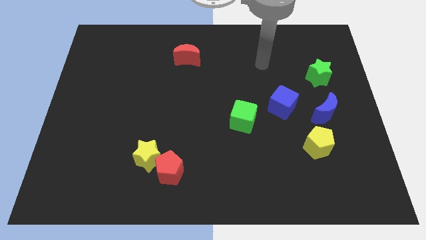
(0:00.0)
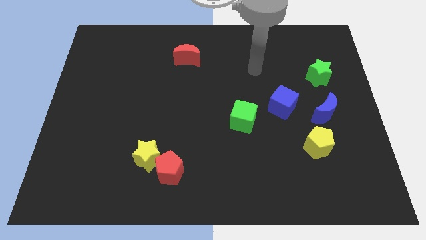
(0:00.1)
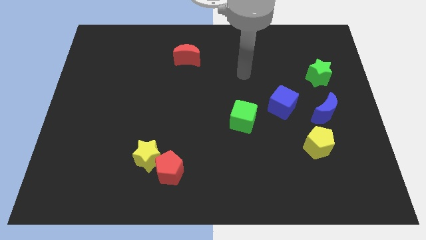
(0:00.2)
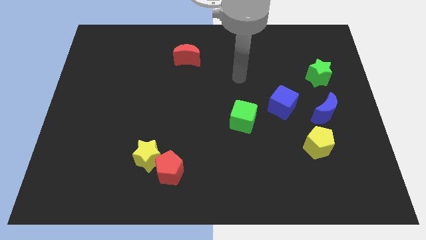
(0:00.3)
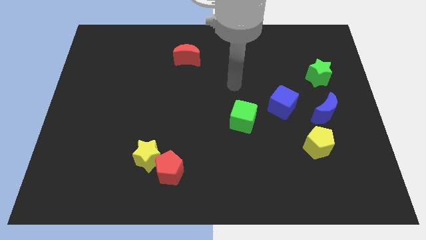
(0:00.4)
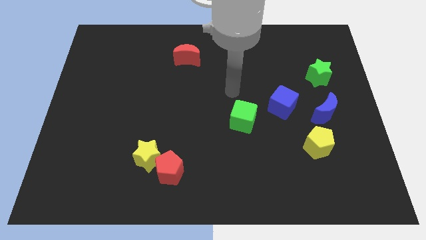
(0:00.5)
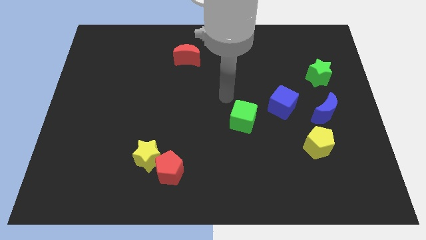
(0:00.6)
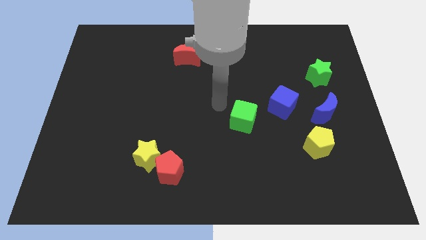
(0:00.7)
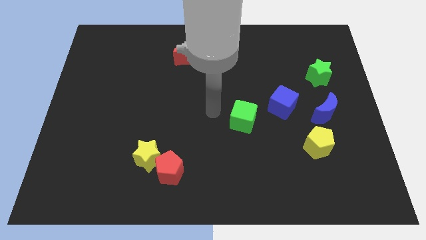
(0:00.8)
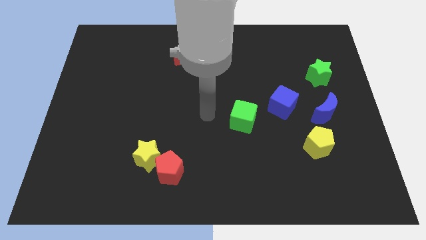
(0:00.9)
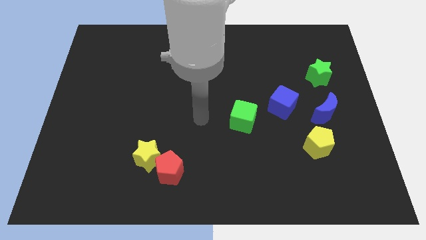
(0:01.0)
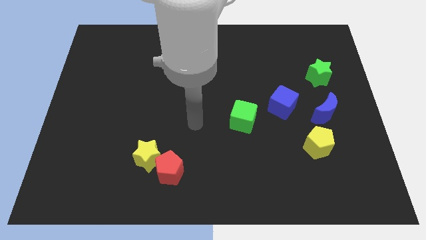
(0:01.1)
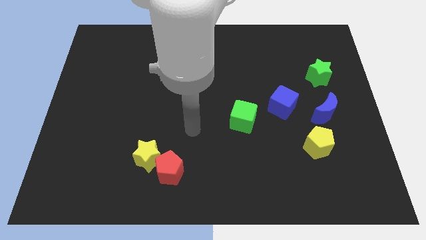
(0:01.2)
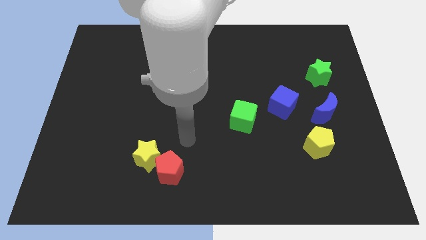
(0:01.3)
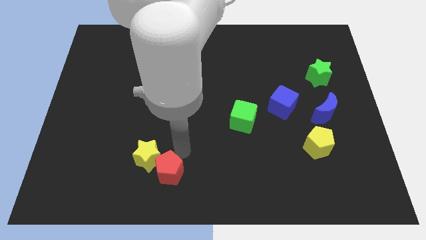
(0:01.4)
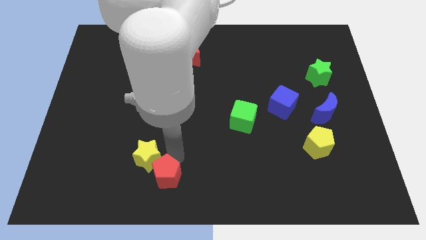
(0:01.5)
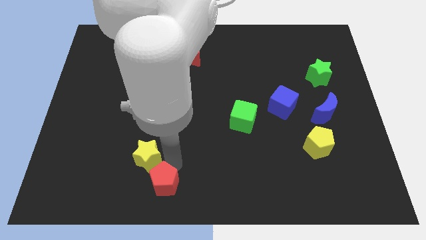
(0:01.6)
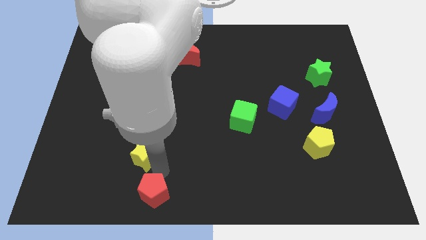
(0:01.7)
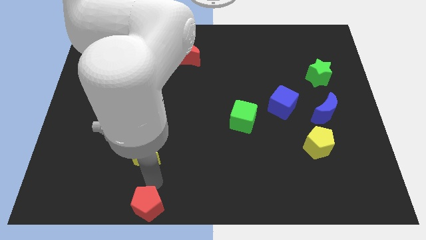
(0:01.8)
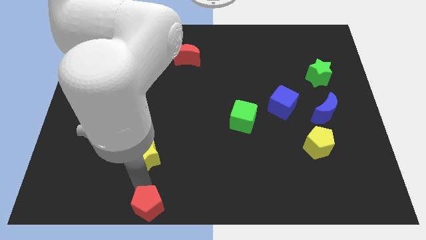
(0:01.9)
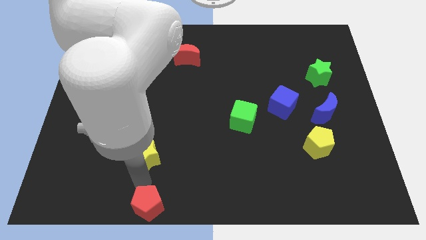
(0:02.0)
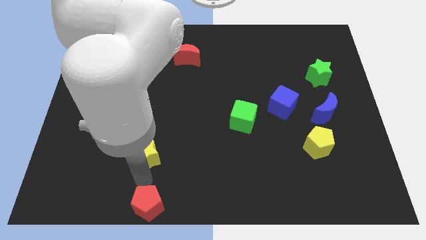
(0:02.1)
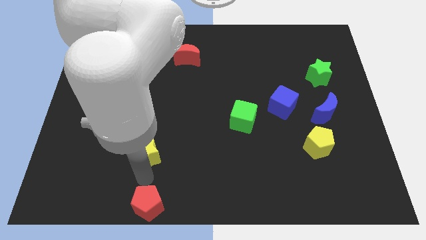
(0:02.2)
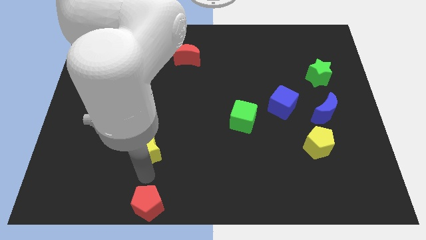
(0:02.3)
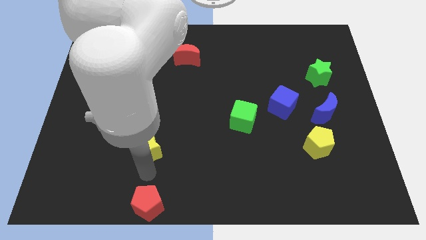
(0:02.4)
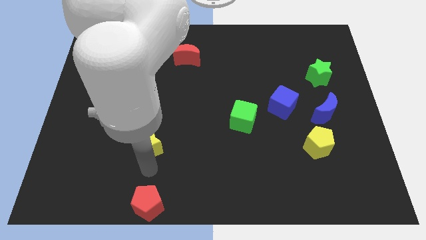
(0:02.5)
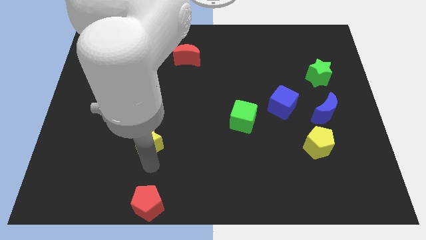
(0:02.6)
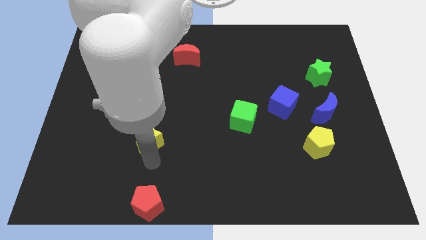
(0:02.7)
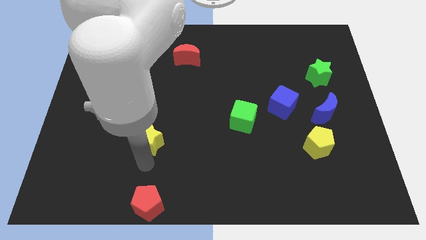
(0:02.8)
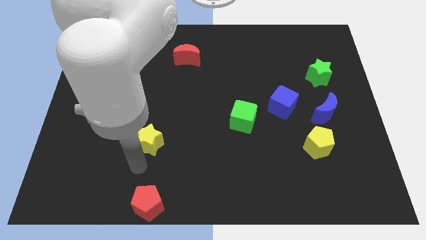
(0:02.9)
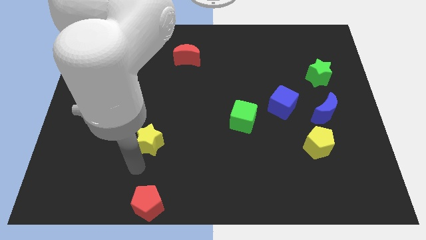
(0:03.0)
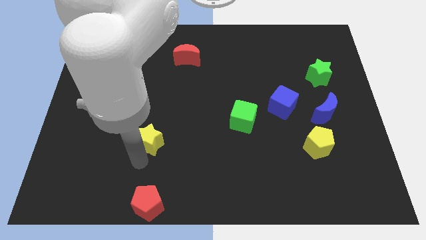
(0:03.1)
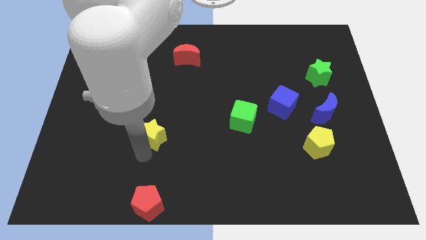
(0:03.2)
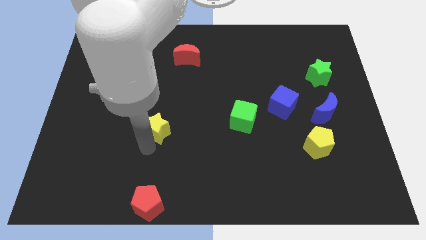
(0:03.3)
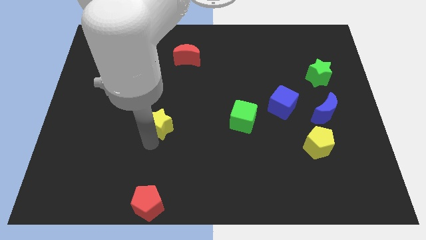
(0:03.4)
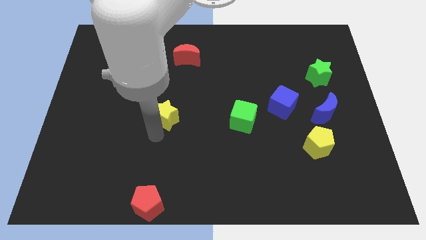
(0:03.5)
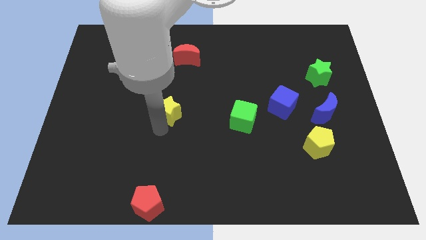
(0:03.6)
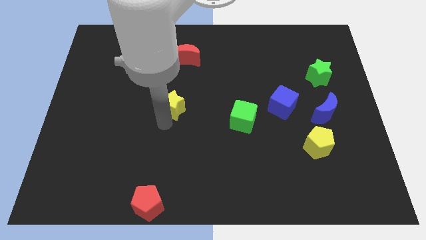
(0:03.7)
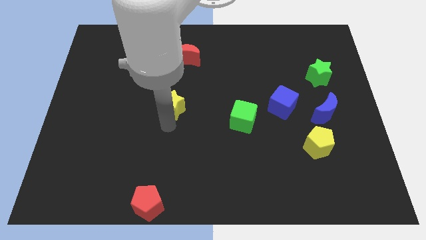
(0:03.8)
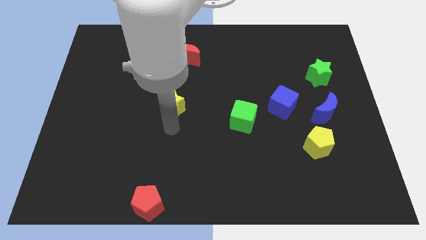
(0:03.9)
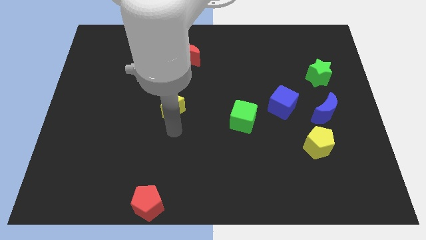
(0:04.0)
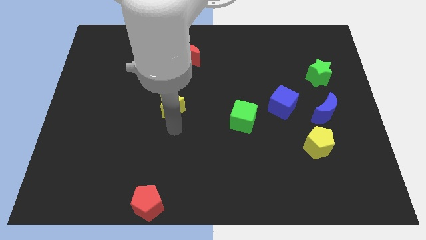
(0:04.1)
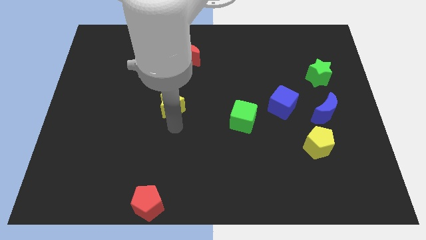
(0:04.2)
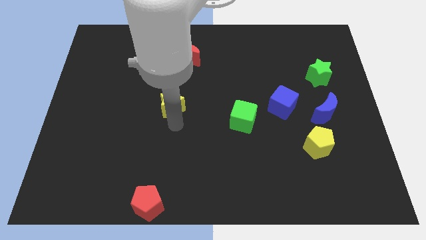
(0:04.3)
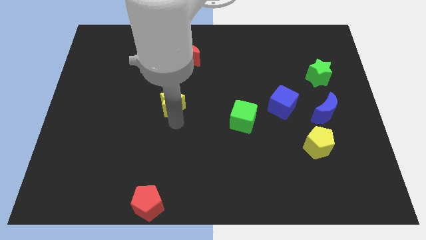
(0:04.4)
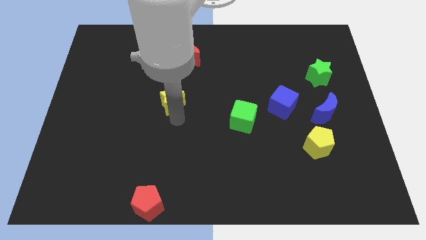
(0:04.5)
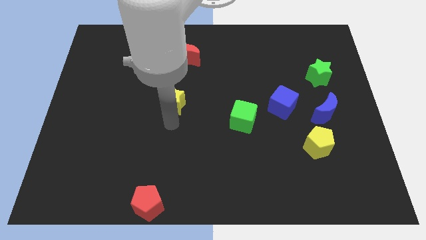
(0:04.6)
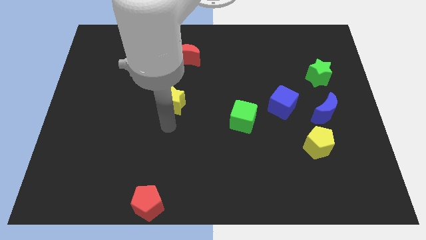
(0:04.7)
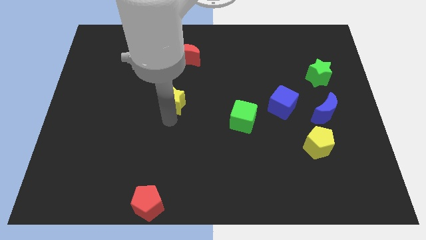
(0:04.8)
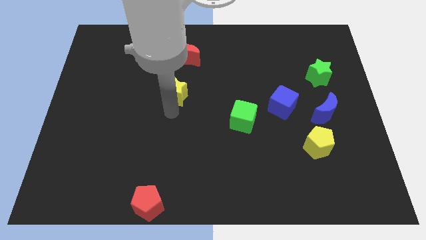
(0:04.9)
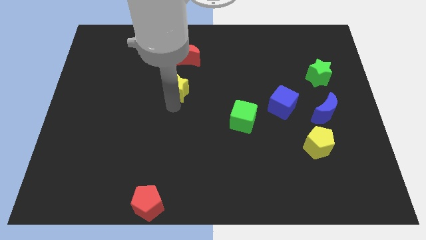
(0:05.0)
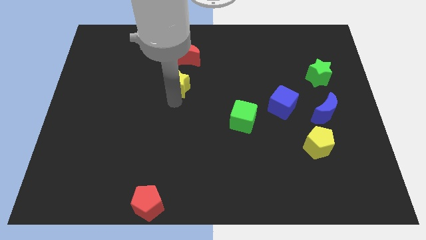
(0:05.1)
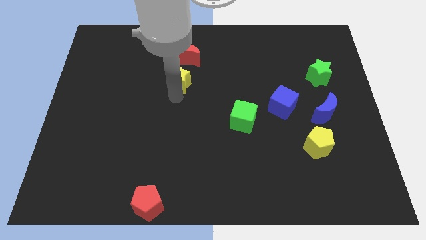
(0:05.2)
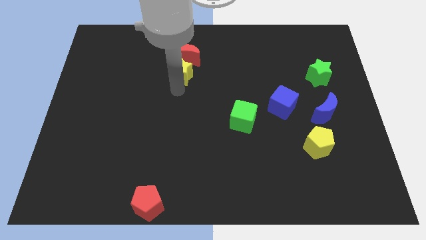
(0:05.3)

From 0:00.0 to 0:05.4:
move the yellow star close to the red moon

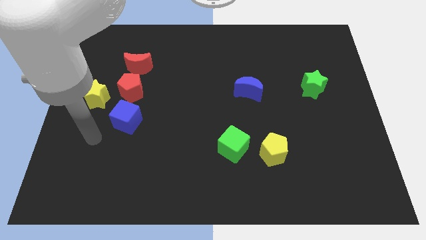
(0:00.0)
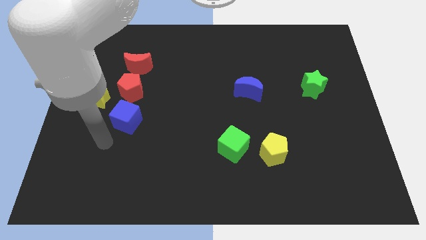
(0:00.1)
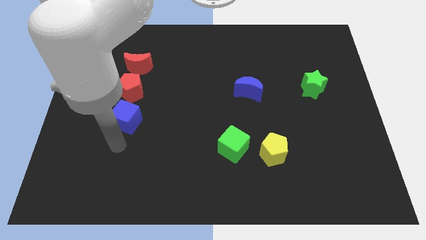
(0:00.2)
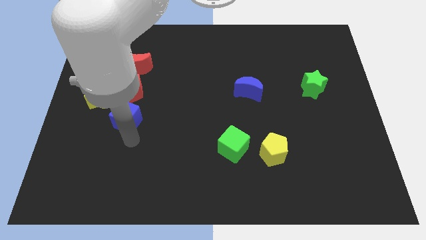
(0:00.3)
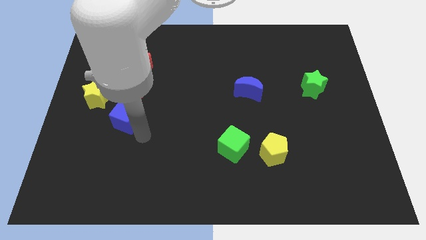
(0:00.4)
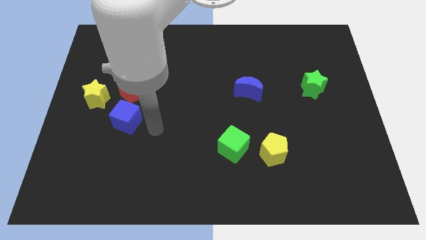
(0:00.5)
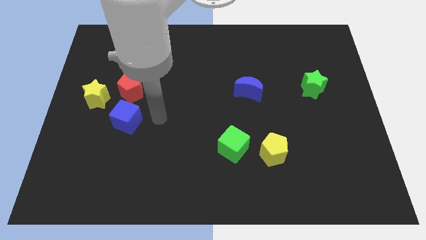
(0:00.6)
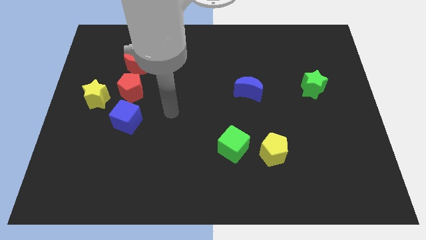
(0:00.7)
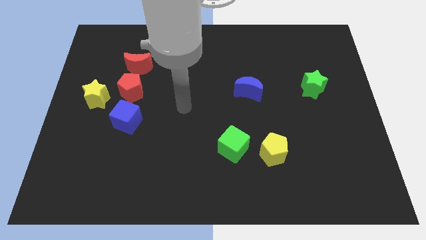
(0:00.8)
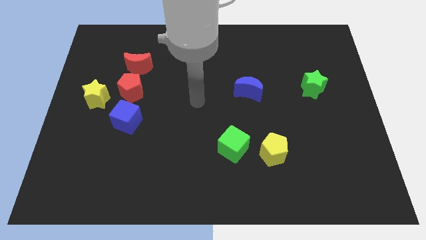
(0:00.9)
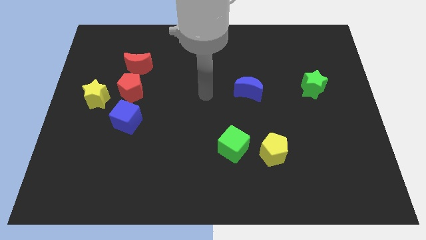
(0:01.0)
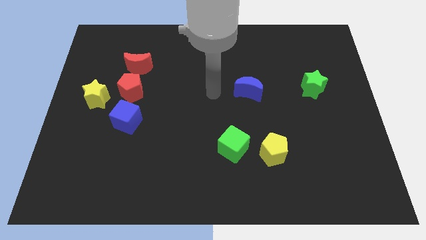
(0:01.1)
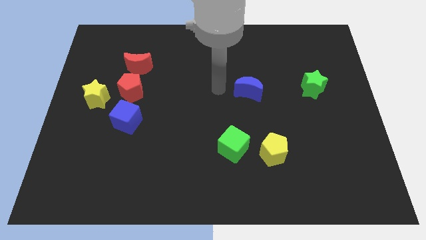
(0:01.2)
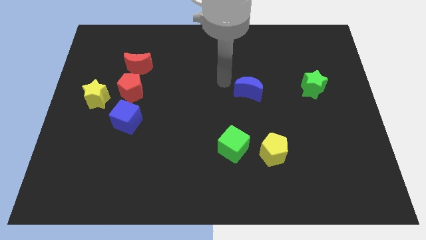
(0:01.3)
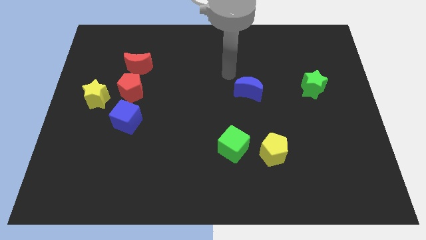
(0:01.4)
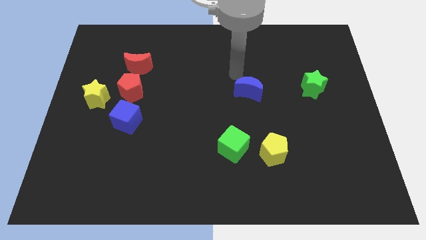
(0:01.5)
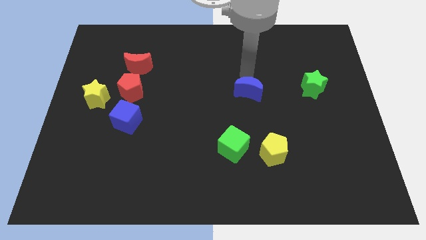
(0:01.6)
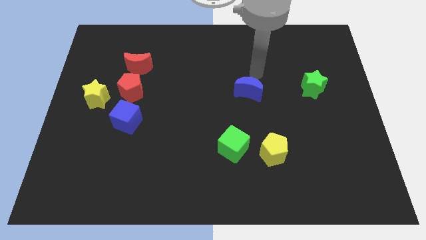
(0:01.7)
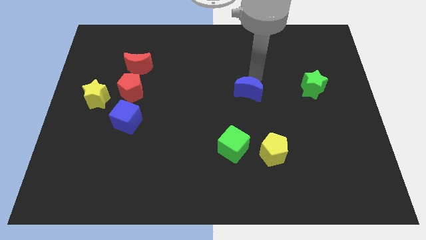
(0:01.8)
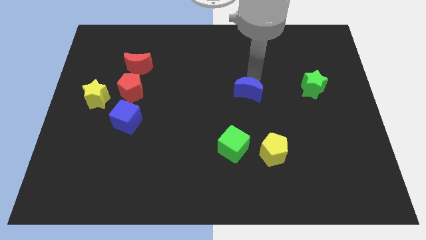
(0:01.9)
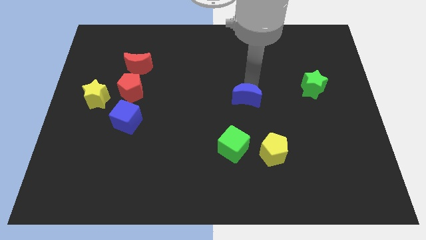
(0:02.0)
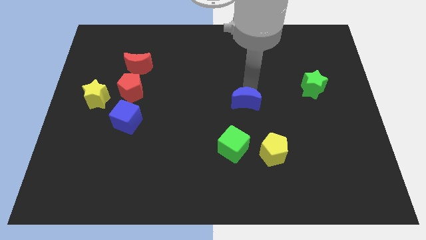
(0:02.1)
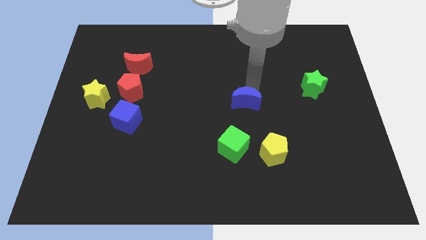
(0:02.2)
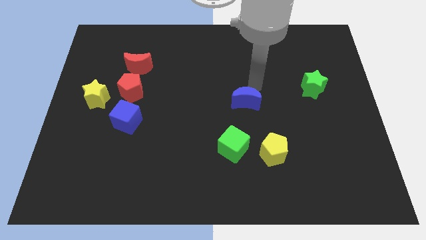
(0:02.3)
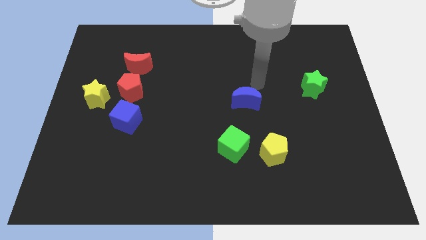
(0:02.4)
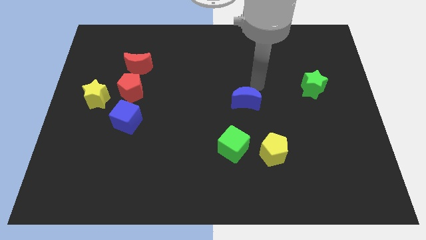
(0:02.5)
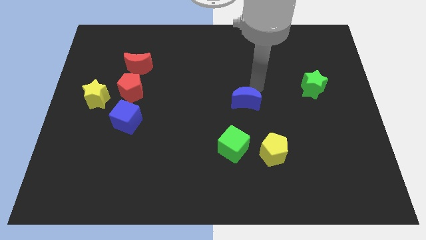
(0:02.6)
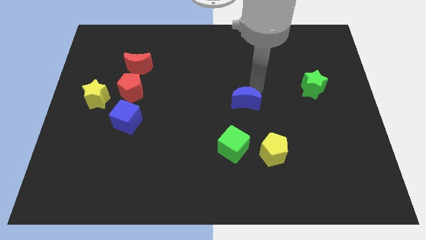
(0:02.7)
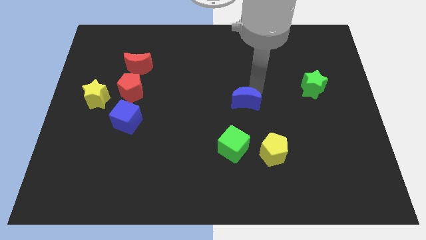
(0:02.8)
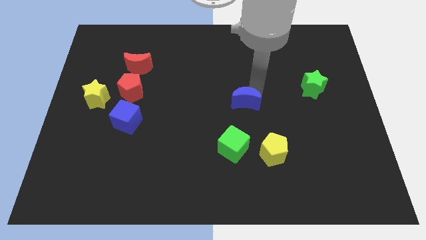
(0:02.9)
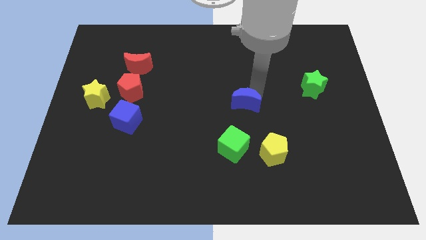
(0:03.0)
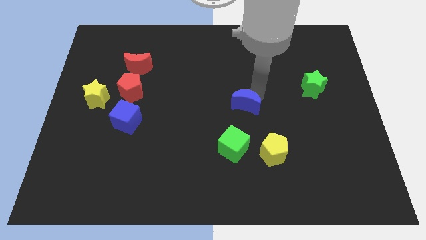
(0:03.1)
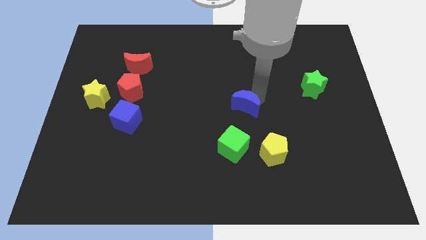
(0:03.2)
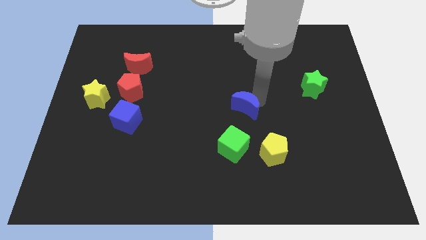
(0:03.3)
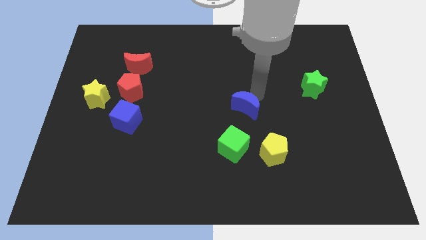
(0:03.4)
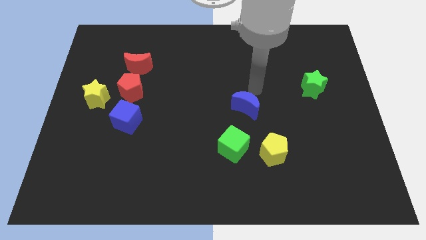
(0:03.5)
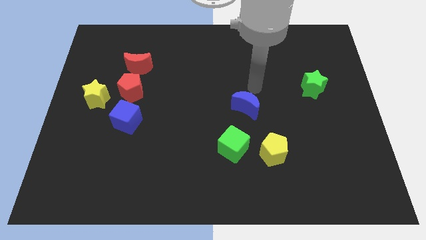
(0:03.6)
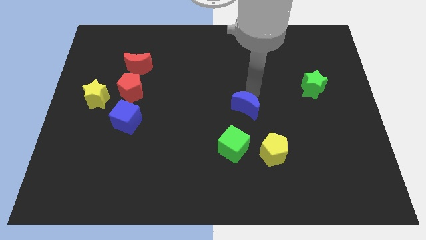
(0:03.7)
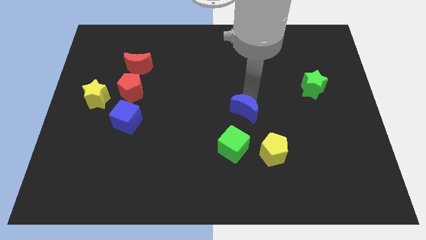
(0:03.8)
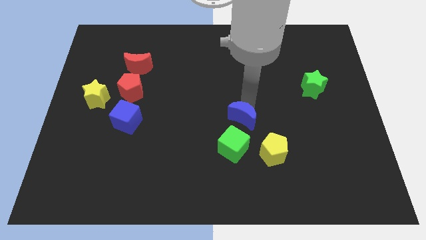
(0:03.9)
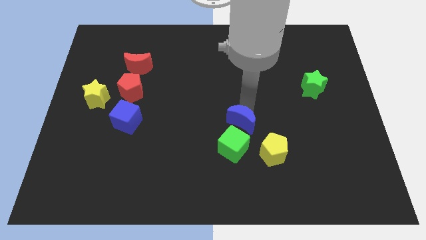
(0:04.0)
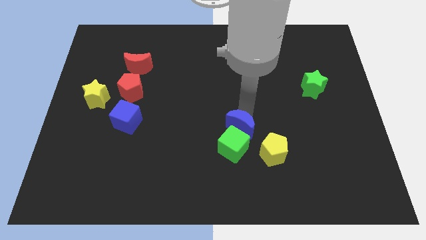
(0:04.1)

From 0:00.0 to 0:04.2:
put the blue moon close to the green cube
